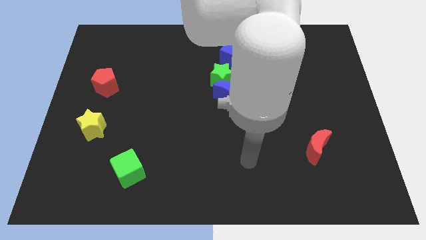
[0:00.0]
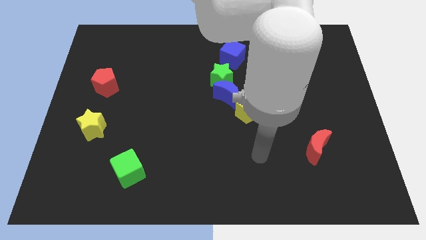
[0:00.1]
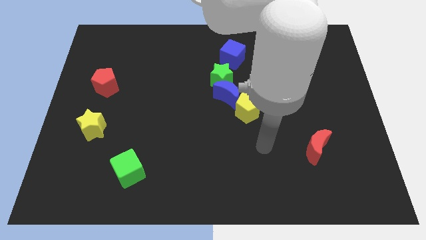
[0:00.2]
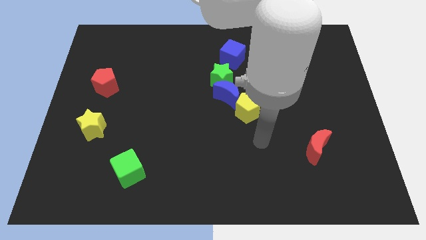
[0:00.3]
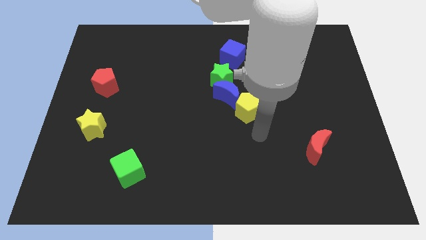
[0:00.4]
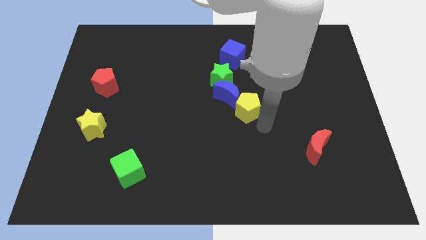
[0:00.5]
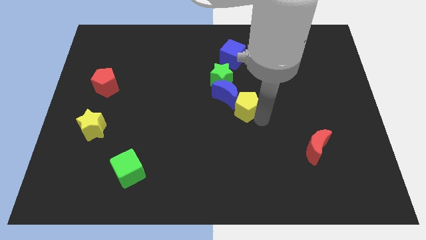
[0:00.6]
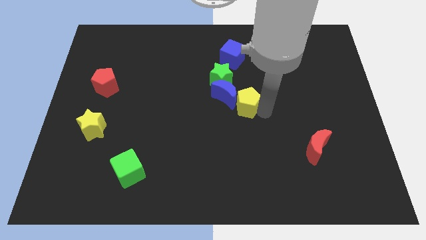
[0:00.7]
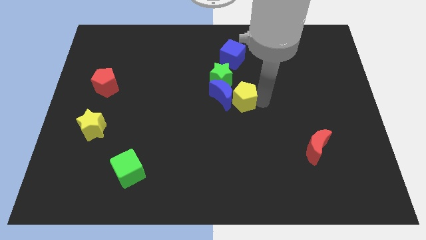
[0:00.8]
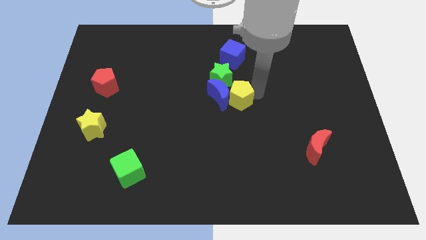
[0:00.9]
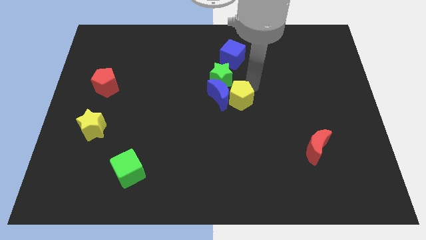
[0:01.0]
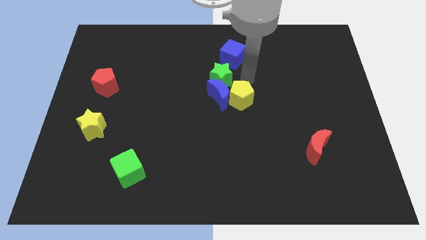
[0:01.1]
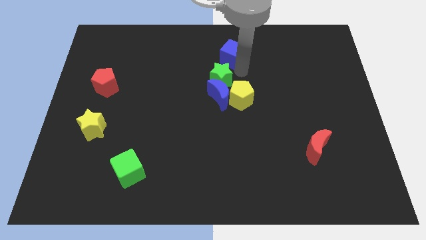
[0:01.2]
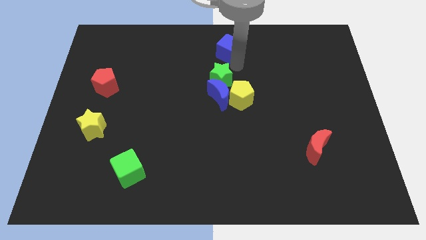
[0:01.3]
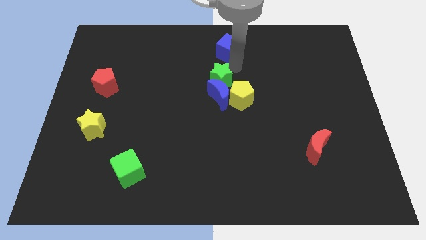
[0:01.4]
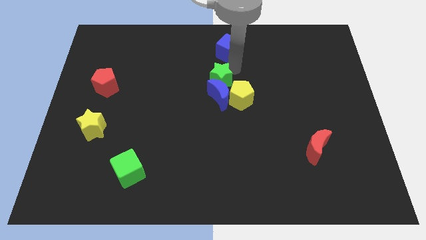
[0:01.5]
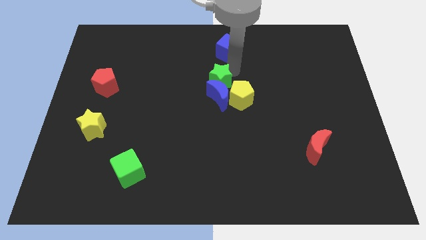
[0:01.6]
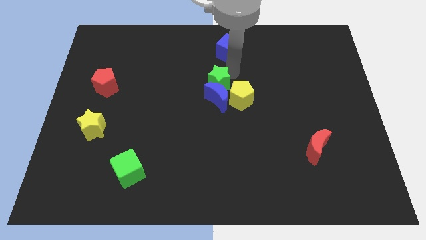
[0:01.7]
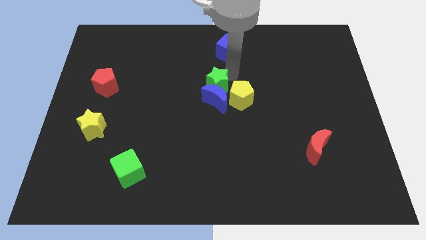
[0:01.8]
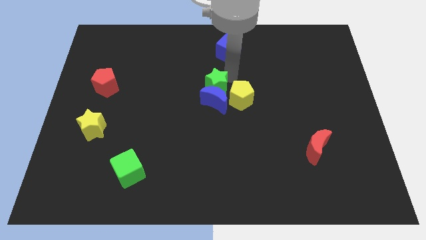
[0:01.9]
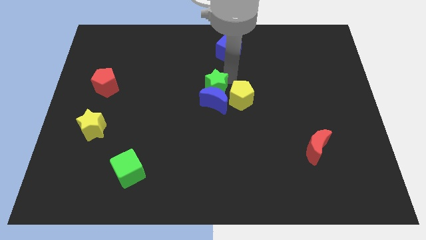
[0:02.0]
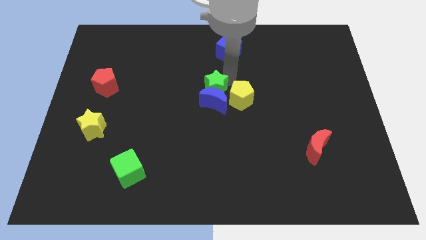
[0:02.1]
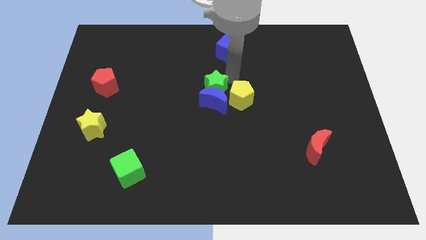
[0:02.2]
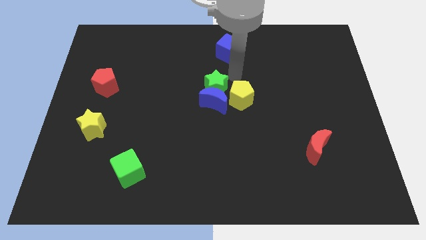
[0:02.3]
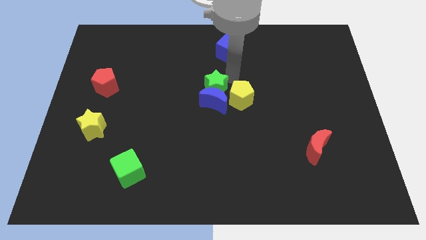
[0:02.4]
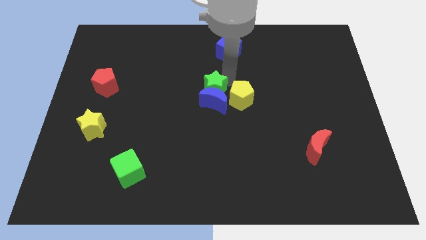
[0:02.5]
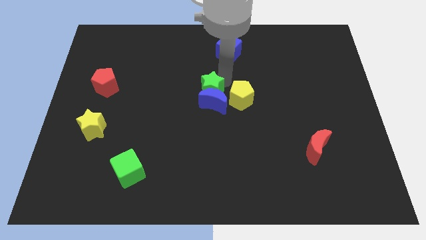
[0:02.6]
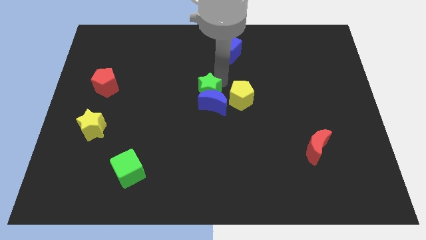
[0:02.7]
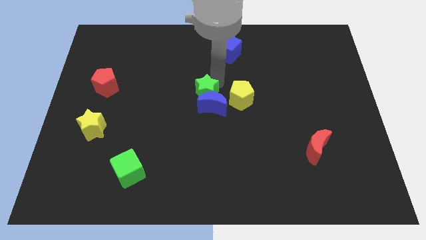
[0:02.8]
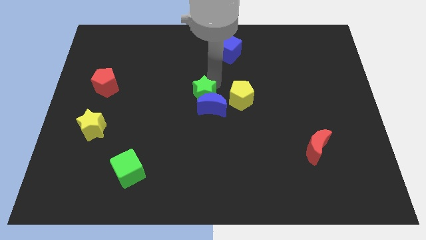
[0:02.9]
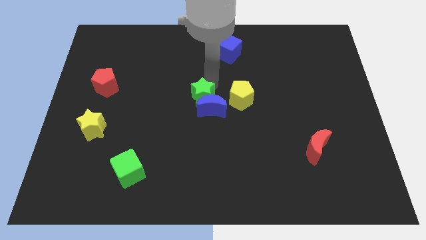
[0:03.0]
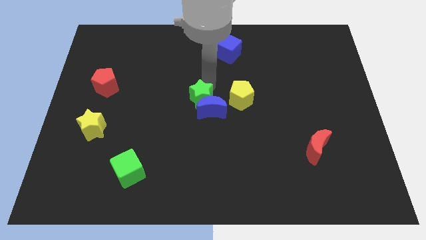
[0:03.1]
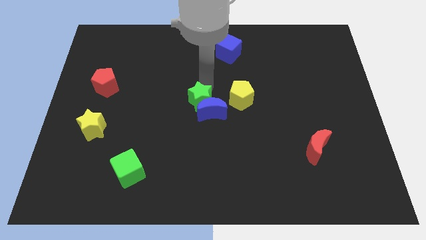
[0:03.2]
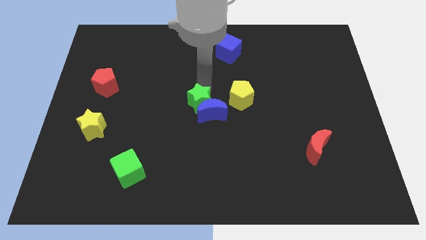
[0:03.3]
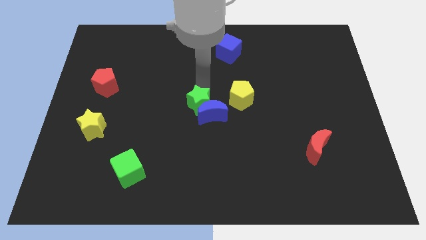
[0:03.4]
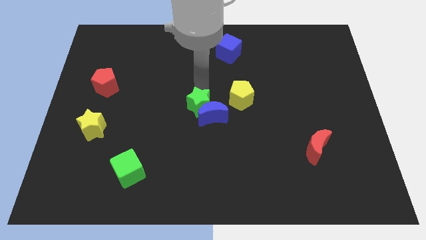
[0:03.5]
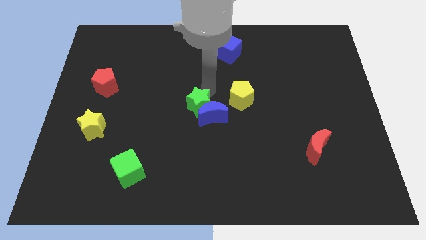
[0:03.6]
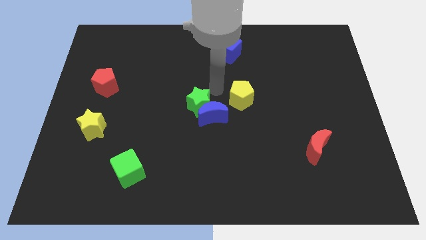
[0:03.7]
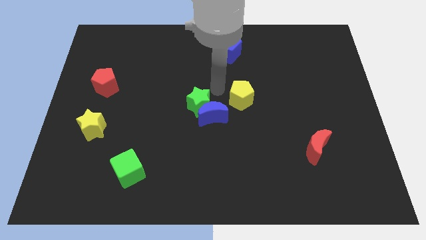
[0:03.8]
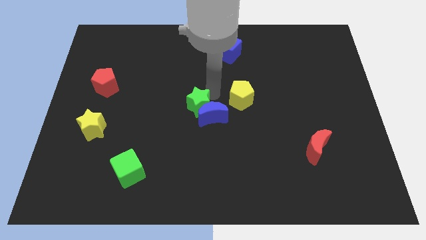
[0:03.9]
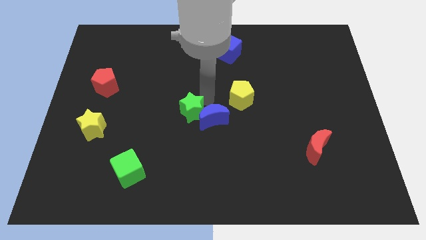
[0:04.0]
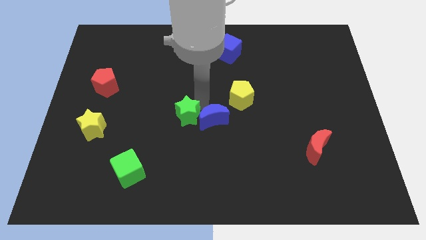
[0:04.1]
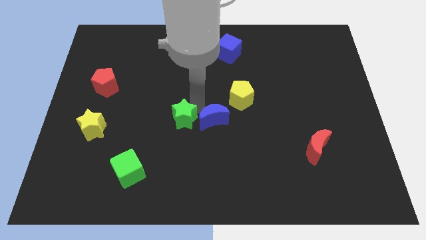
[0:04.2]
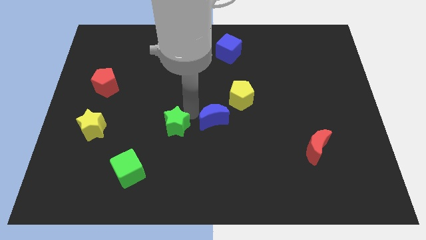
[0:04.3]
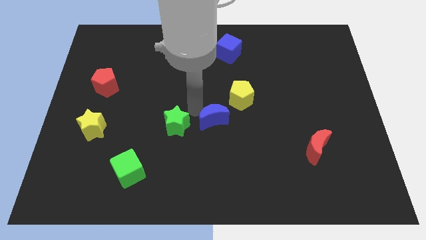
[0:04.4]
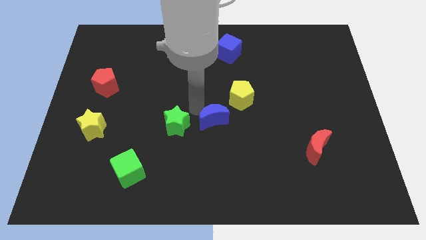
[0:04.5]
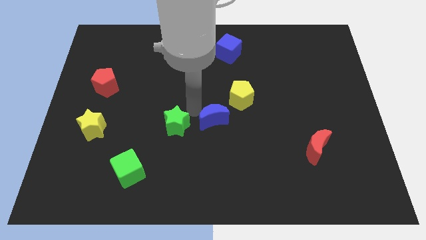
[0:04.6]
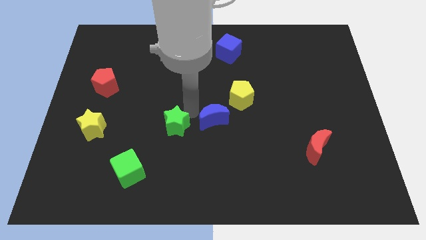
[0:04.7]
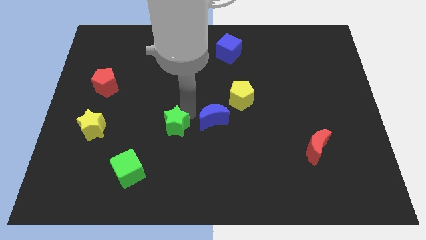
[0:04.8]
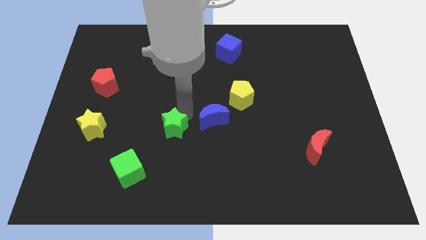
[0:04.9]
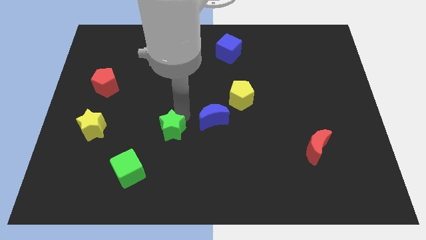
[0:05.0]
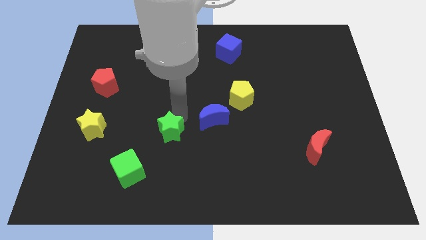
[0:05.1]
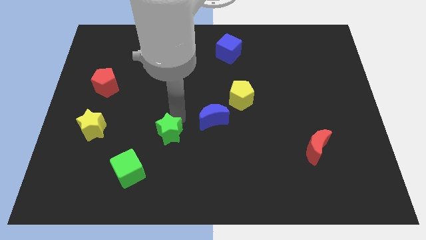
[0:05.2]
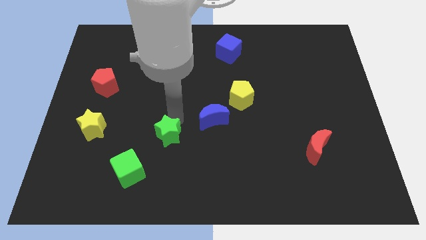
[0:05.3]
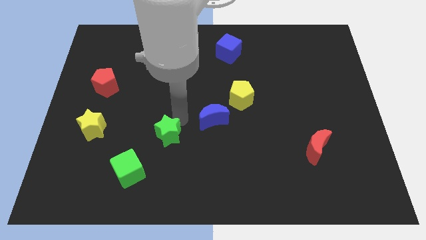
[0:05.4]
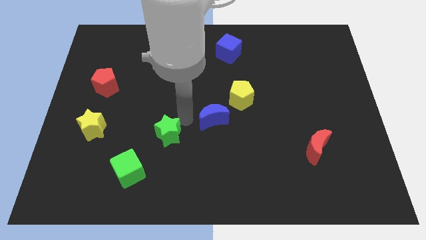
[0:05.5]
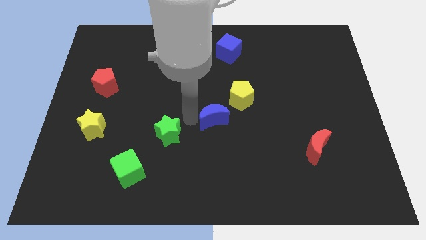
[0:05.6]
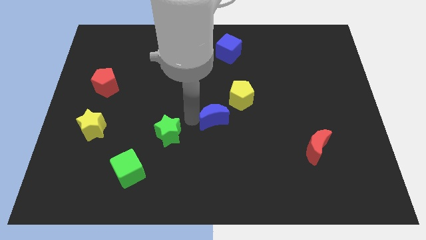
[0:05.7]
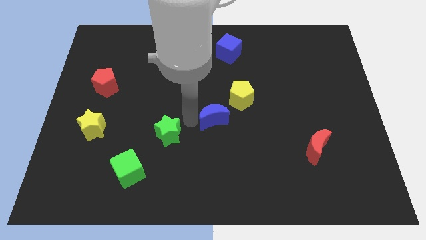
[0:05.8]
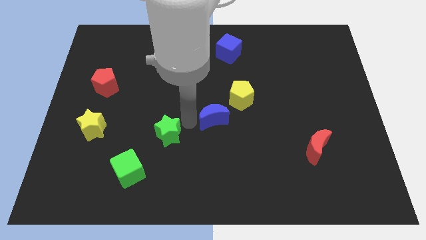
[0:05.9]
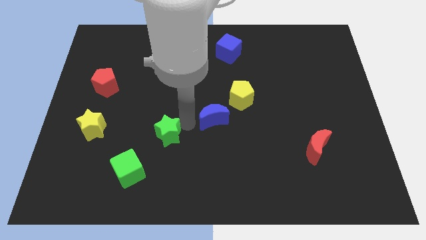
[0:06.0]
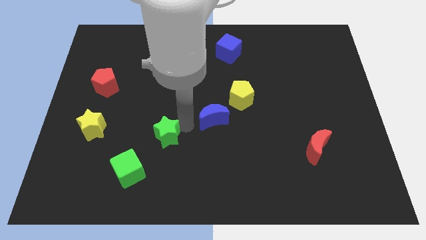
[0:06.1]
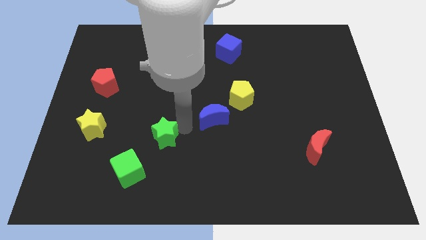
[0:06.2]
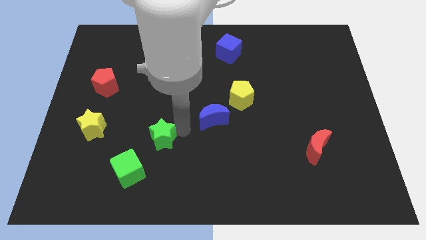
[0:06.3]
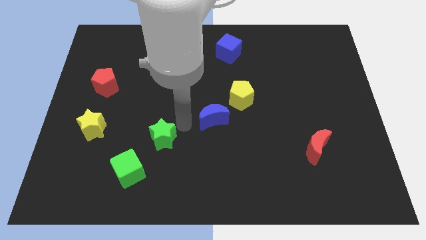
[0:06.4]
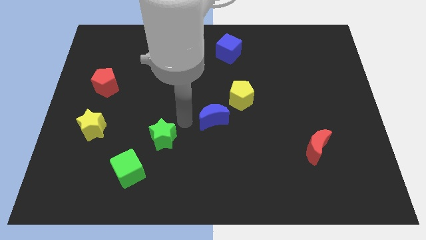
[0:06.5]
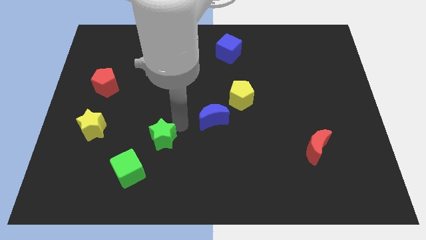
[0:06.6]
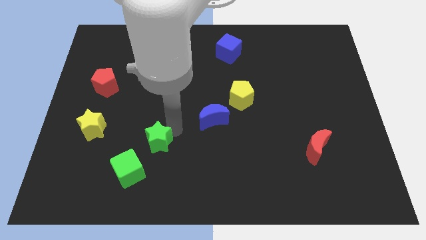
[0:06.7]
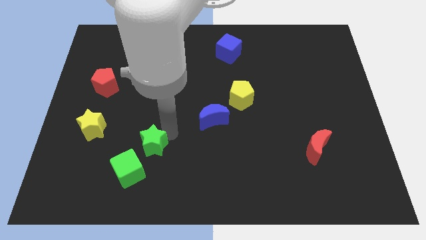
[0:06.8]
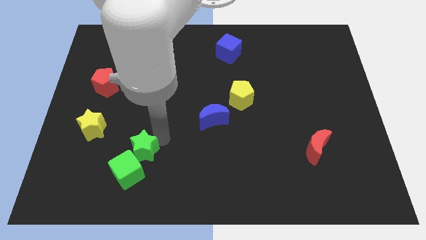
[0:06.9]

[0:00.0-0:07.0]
push the green star towards the green cube

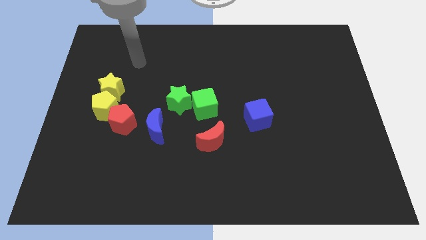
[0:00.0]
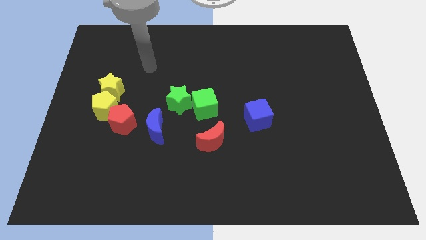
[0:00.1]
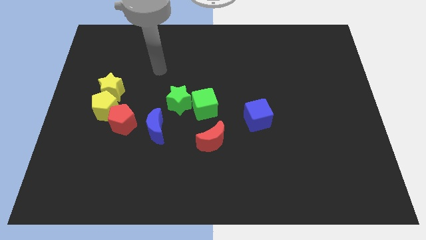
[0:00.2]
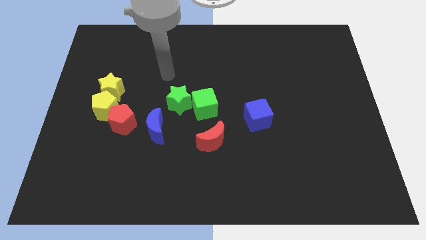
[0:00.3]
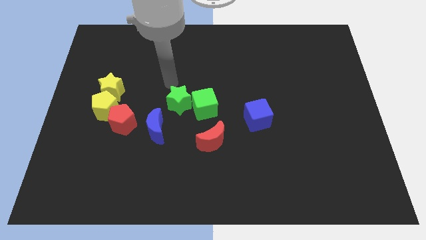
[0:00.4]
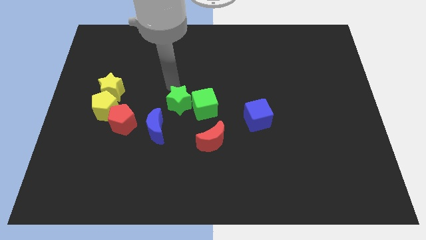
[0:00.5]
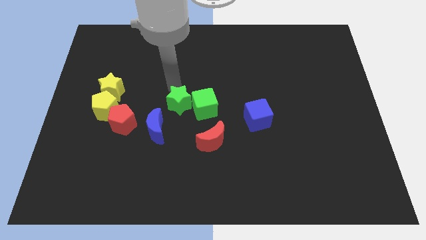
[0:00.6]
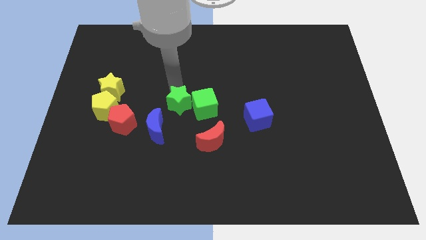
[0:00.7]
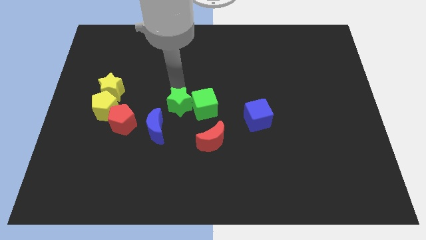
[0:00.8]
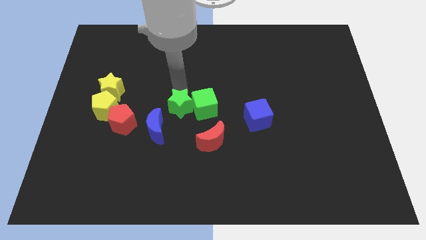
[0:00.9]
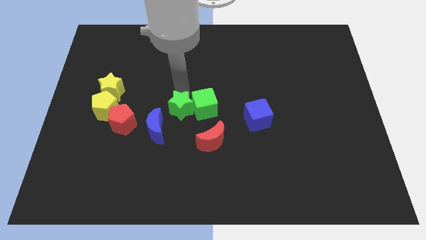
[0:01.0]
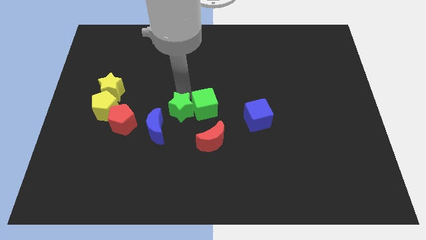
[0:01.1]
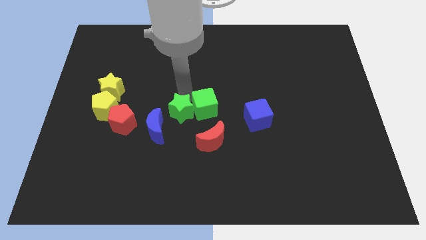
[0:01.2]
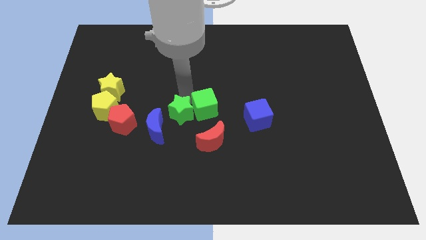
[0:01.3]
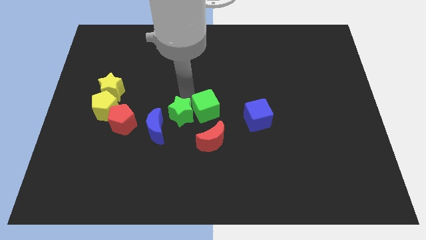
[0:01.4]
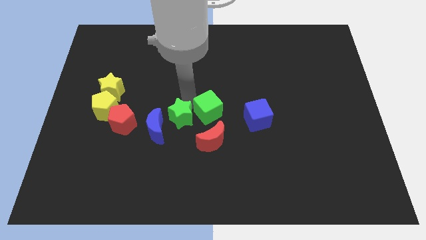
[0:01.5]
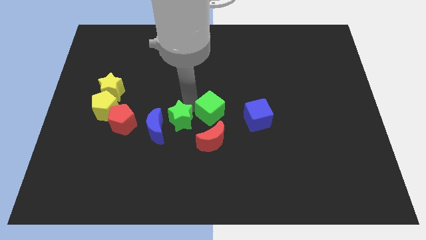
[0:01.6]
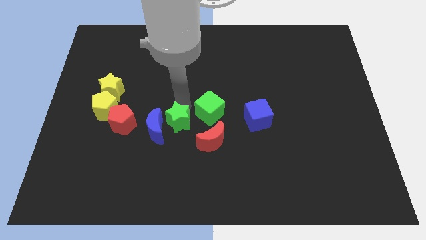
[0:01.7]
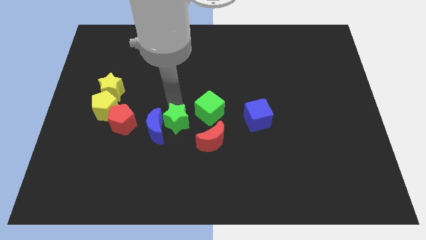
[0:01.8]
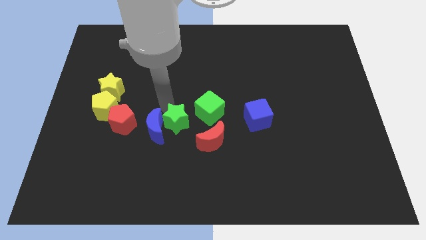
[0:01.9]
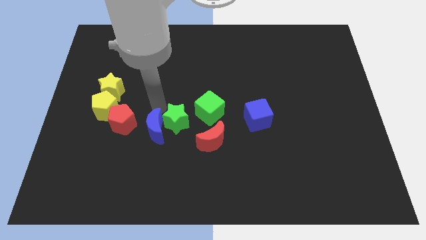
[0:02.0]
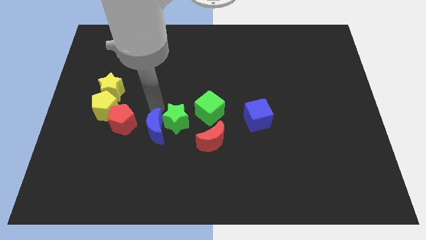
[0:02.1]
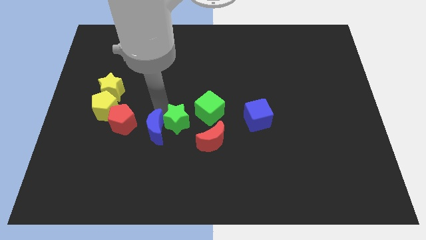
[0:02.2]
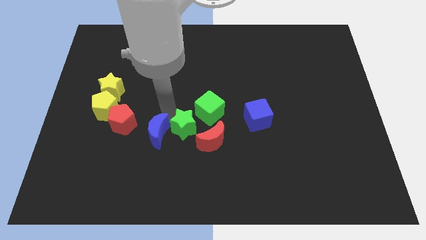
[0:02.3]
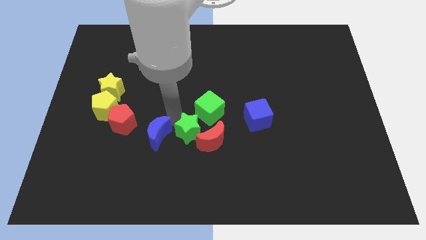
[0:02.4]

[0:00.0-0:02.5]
slide the green star next to the red moon
